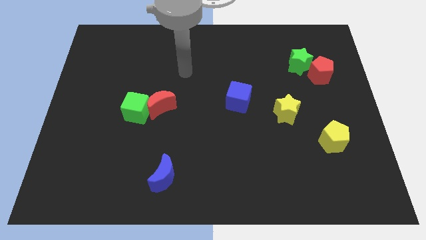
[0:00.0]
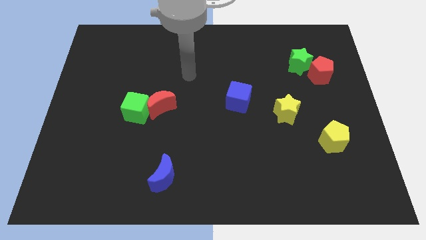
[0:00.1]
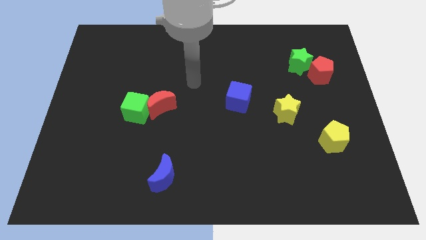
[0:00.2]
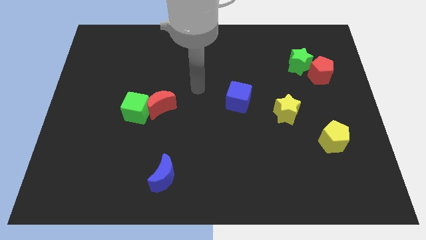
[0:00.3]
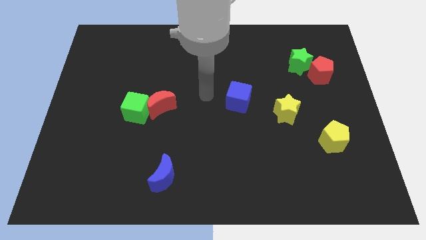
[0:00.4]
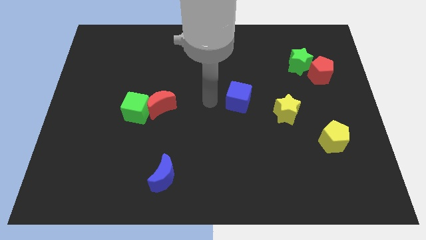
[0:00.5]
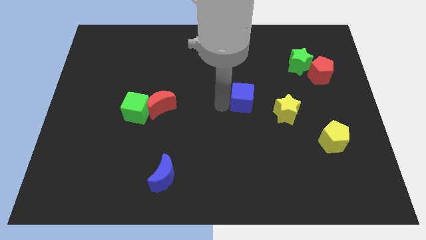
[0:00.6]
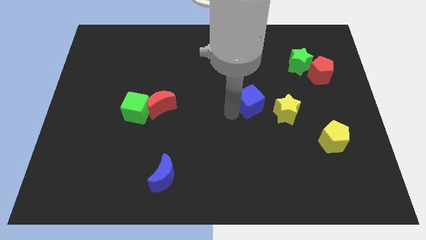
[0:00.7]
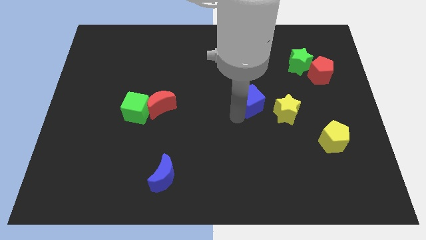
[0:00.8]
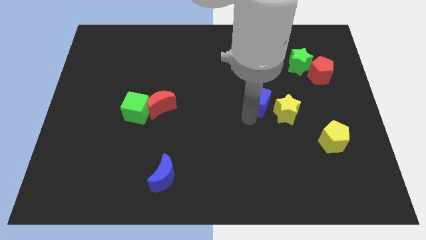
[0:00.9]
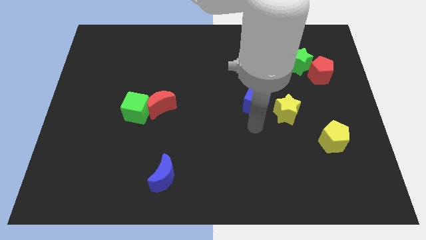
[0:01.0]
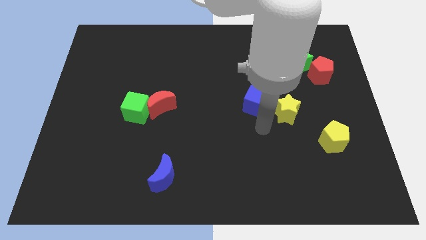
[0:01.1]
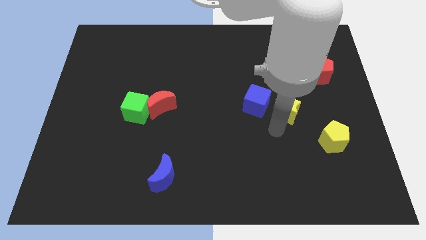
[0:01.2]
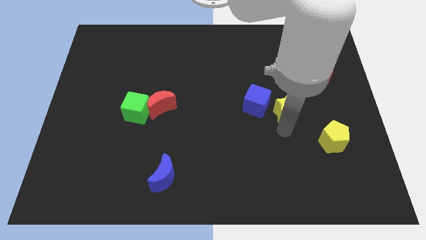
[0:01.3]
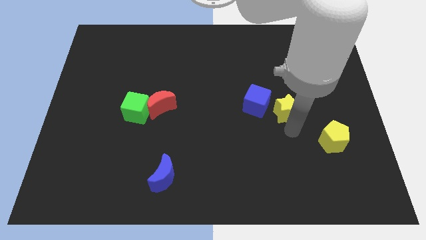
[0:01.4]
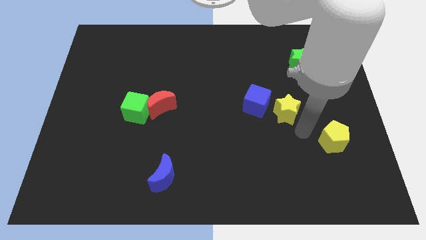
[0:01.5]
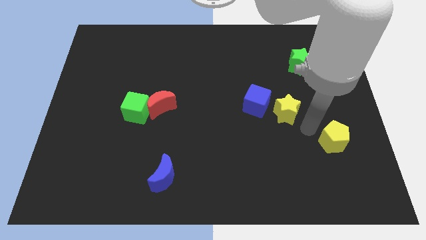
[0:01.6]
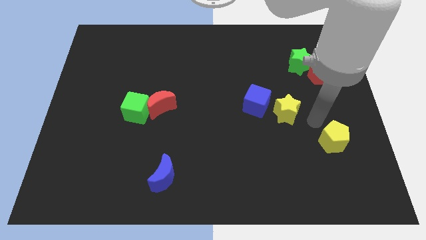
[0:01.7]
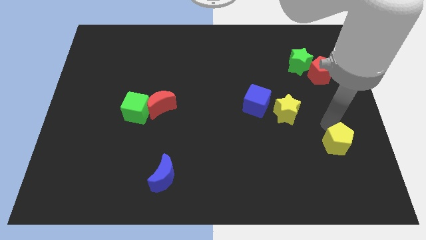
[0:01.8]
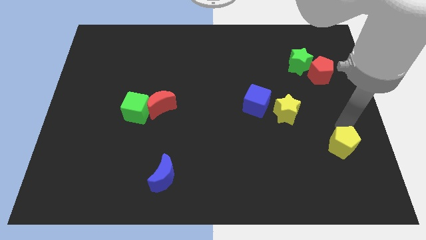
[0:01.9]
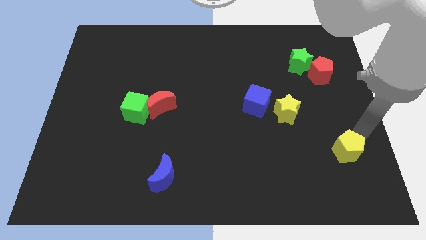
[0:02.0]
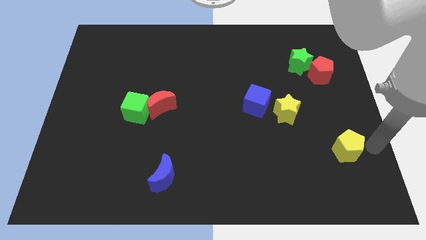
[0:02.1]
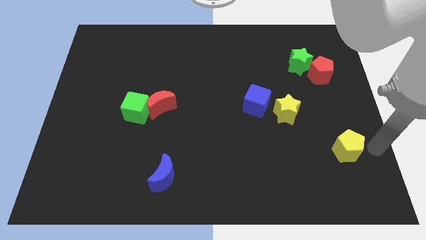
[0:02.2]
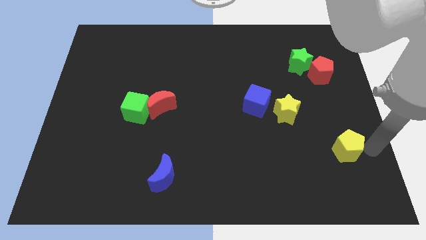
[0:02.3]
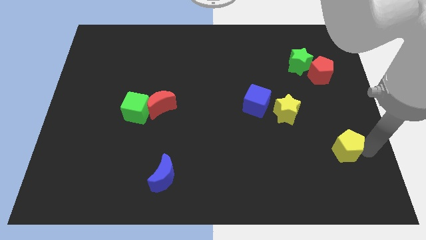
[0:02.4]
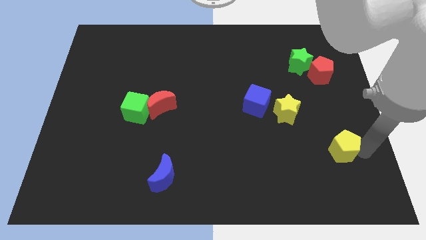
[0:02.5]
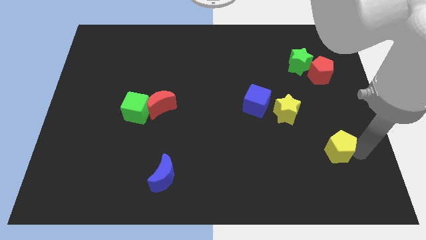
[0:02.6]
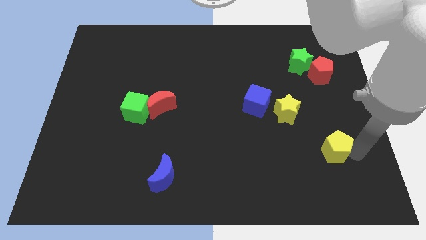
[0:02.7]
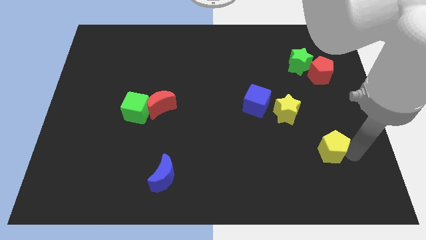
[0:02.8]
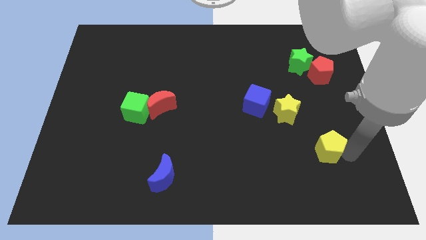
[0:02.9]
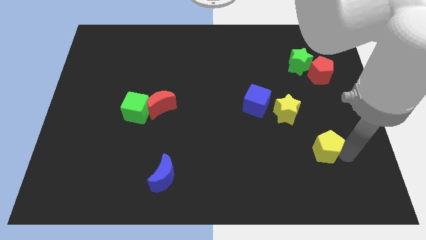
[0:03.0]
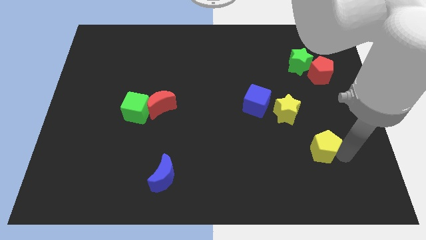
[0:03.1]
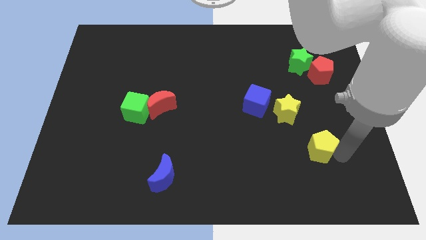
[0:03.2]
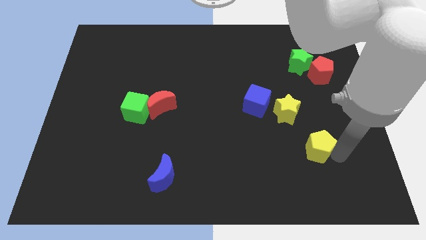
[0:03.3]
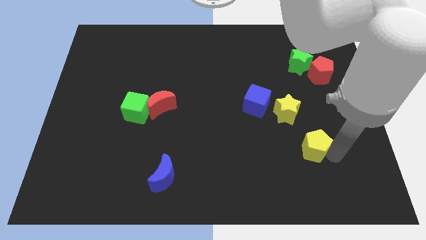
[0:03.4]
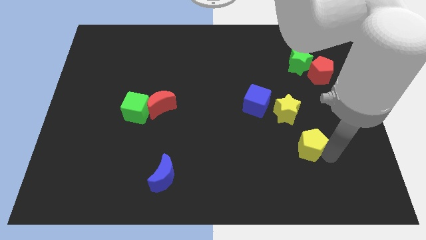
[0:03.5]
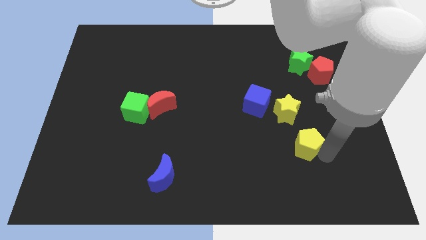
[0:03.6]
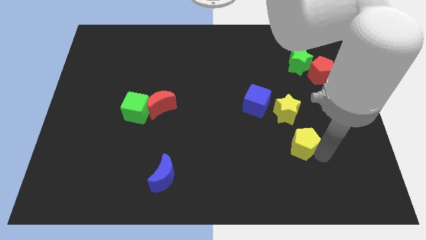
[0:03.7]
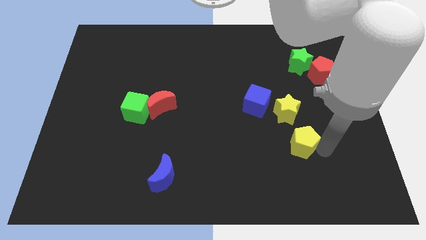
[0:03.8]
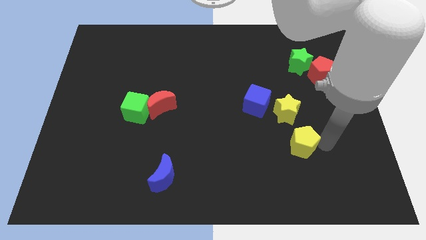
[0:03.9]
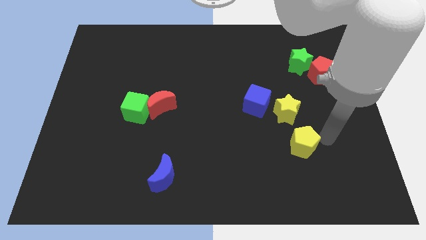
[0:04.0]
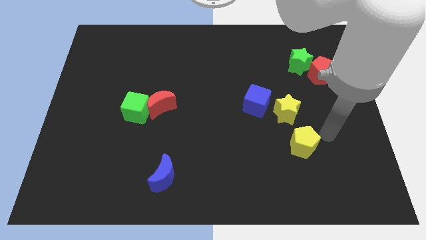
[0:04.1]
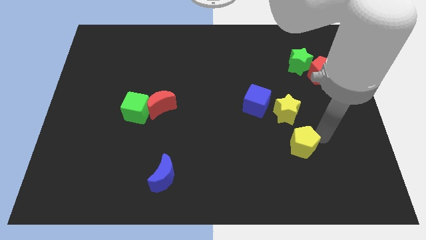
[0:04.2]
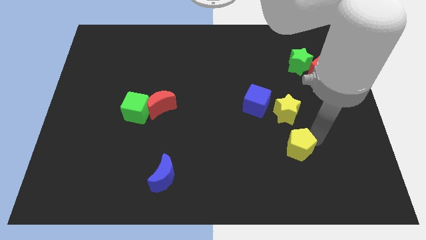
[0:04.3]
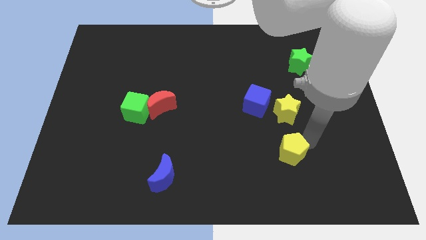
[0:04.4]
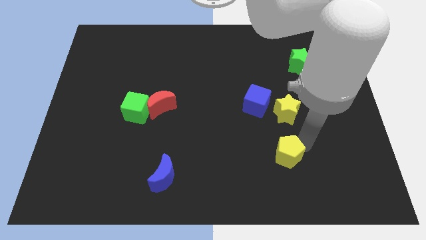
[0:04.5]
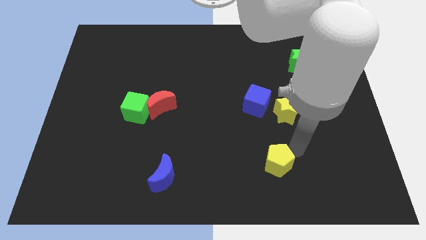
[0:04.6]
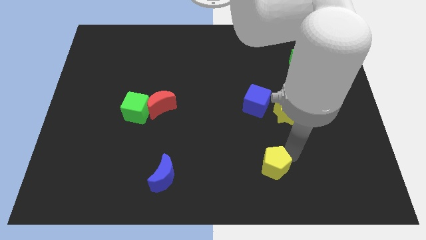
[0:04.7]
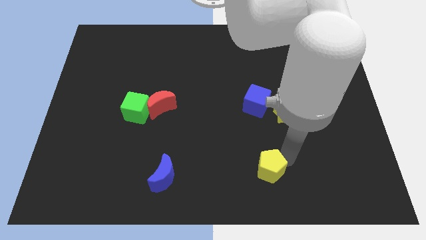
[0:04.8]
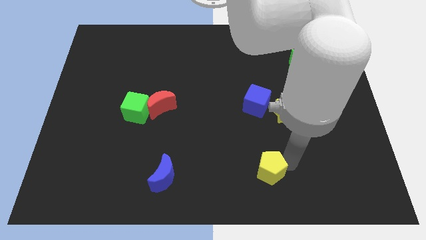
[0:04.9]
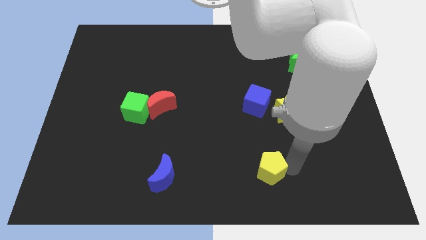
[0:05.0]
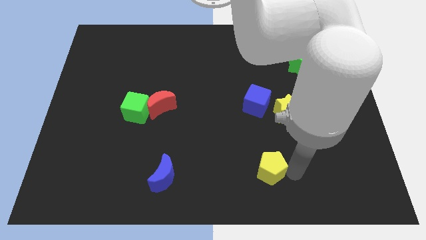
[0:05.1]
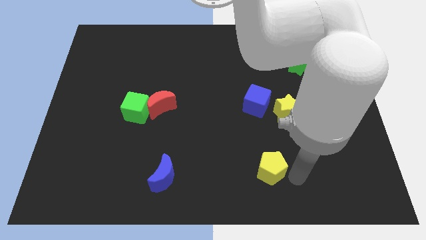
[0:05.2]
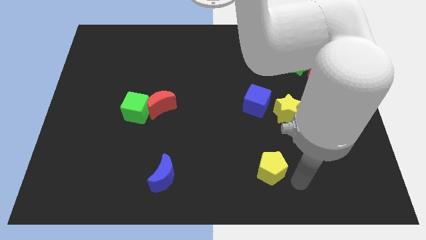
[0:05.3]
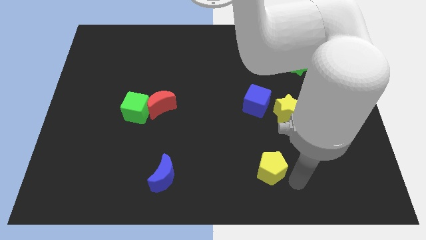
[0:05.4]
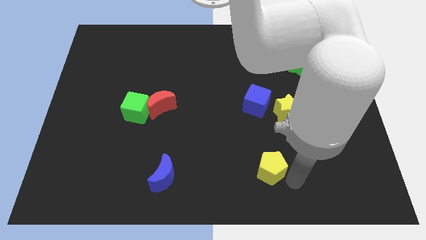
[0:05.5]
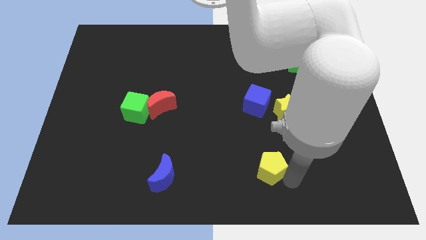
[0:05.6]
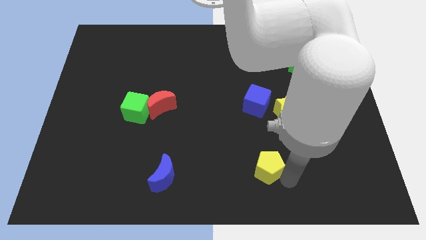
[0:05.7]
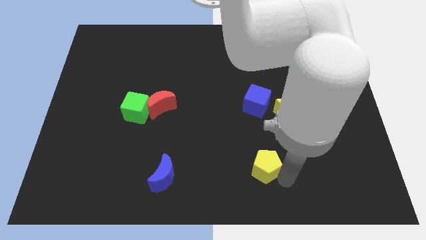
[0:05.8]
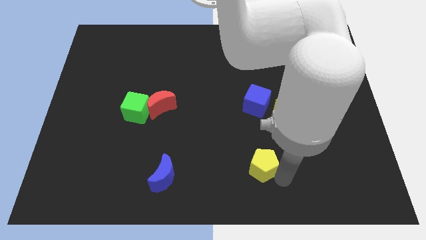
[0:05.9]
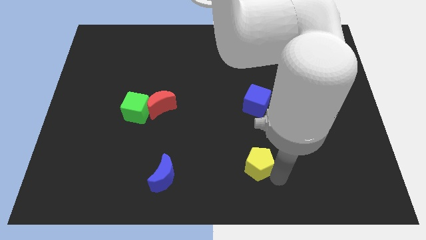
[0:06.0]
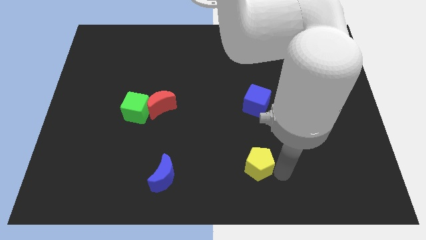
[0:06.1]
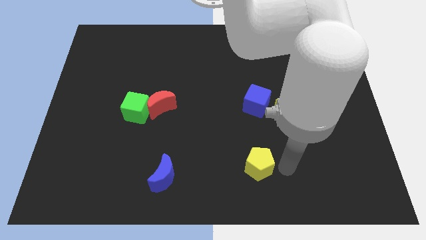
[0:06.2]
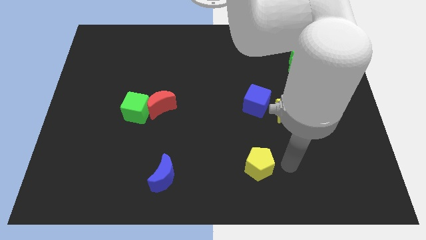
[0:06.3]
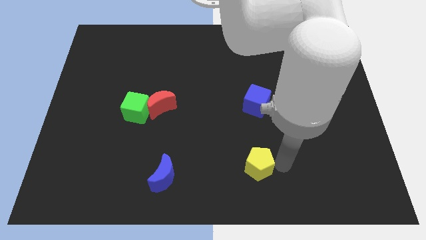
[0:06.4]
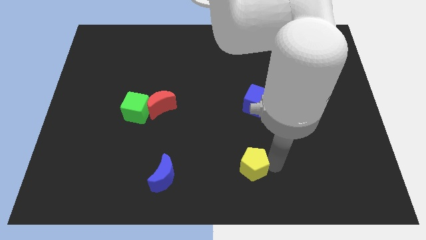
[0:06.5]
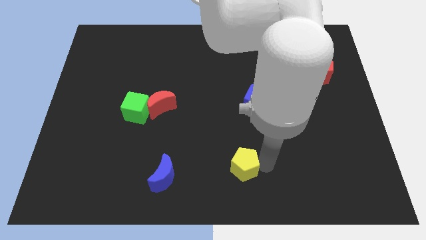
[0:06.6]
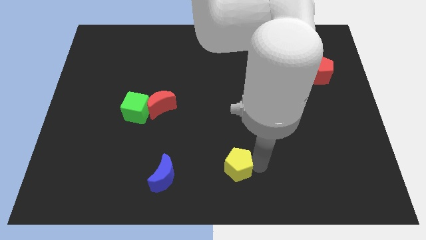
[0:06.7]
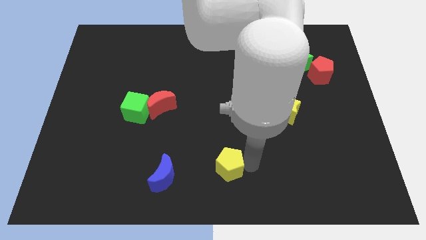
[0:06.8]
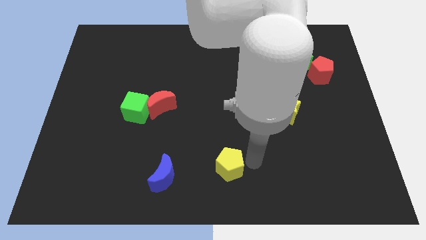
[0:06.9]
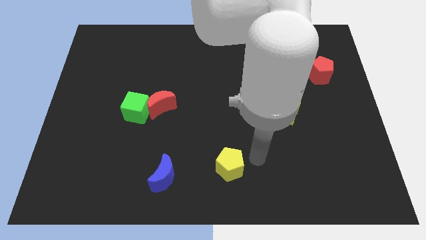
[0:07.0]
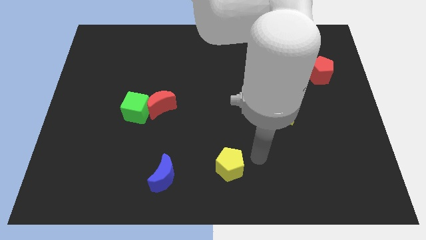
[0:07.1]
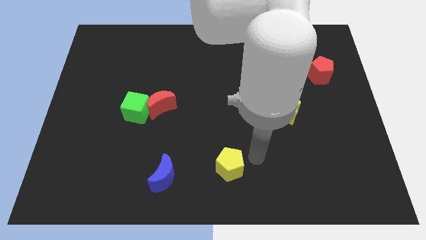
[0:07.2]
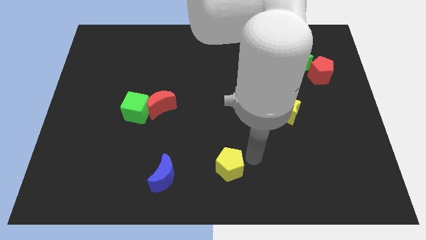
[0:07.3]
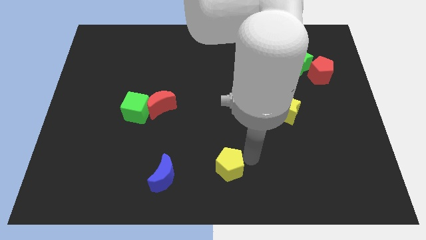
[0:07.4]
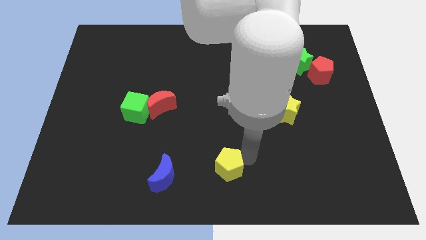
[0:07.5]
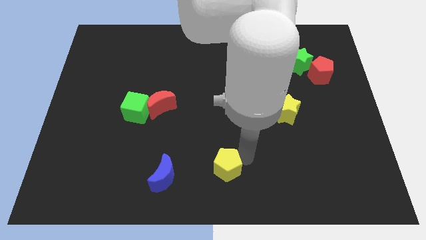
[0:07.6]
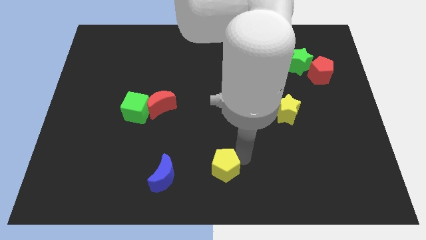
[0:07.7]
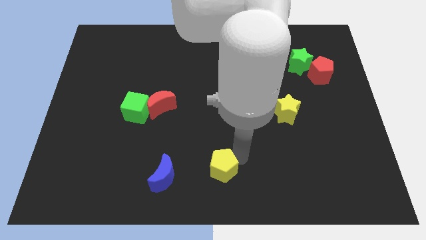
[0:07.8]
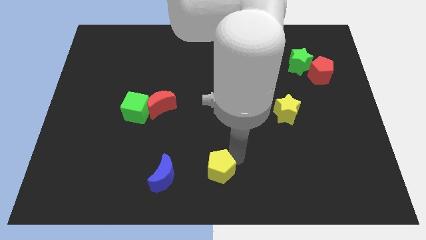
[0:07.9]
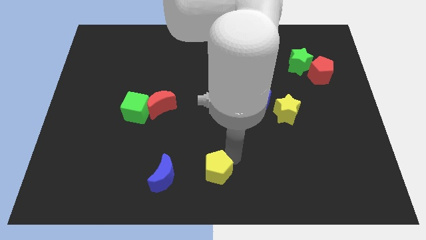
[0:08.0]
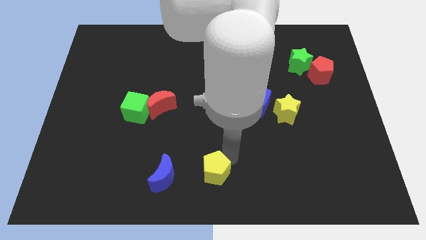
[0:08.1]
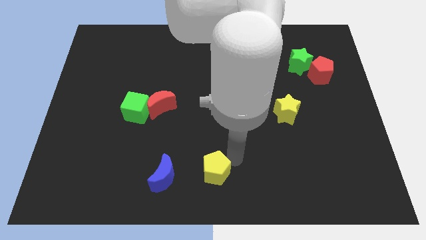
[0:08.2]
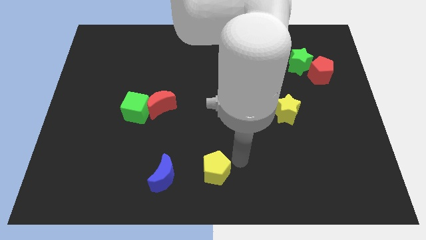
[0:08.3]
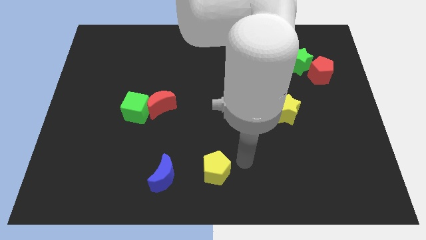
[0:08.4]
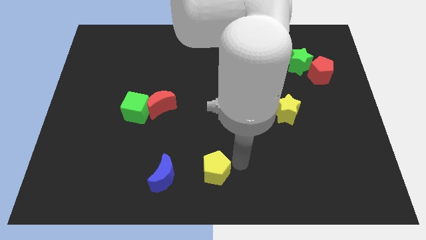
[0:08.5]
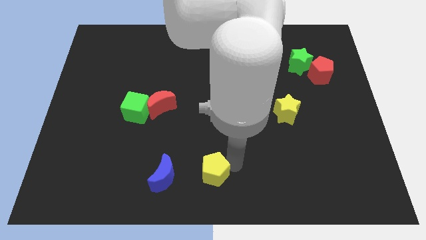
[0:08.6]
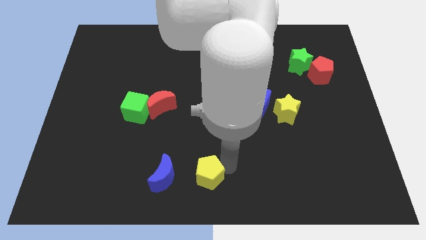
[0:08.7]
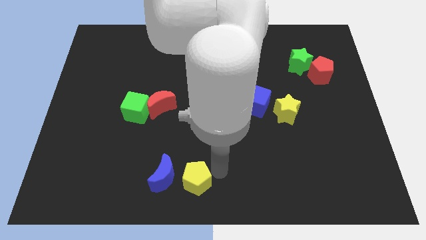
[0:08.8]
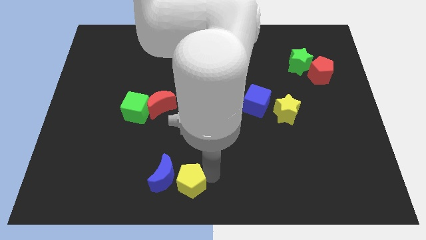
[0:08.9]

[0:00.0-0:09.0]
put the yellow pentagon to the blue moon
